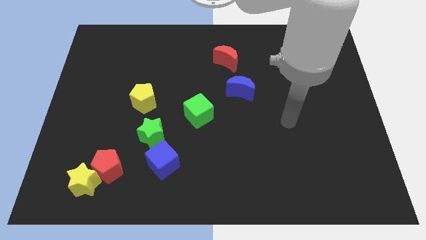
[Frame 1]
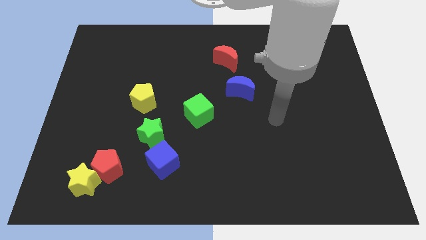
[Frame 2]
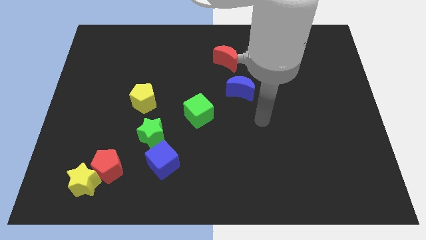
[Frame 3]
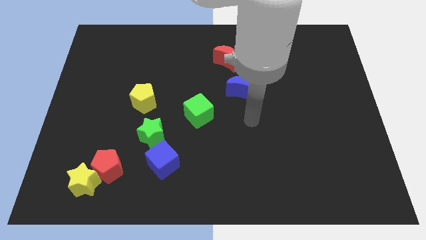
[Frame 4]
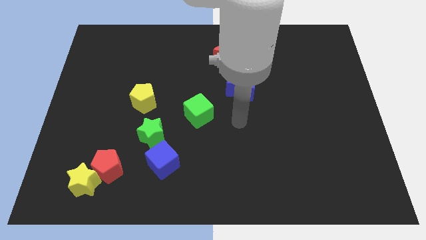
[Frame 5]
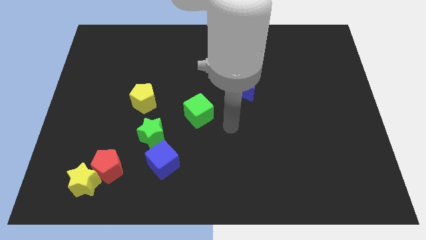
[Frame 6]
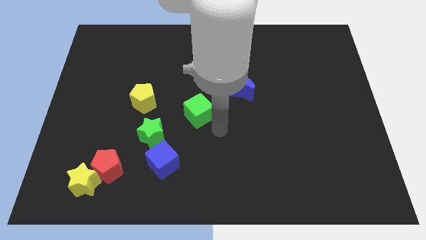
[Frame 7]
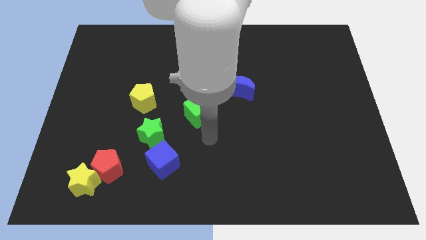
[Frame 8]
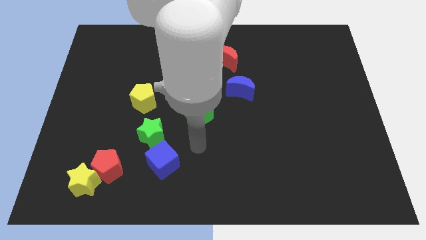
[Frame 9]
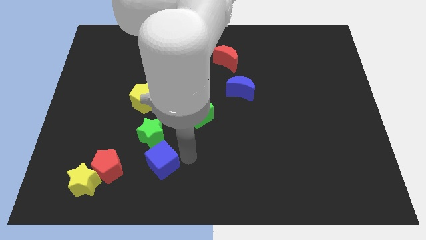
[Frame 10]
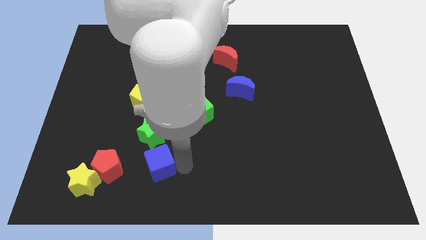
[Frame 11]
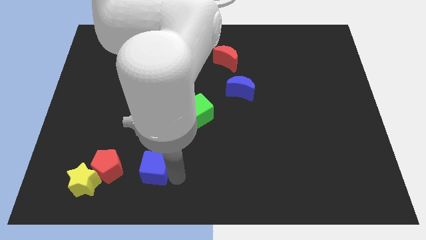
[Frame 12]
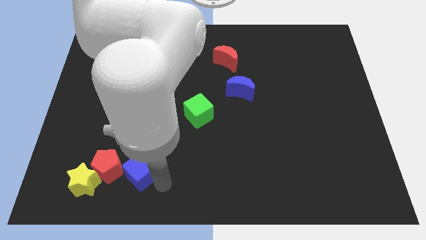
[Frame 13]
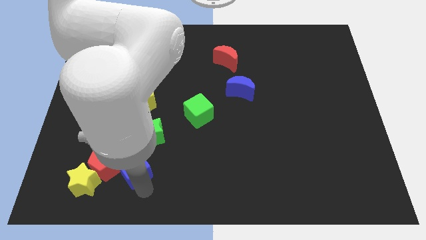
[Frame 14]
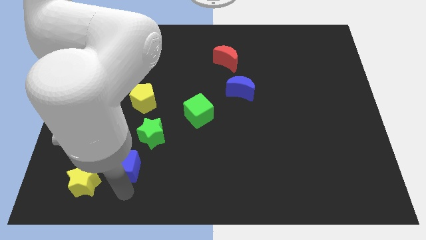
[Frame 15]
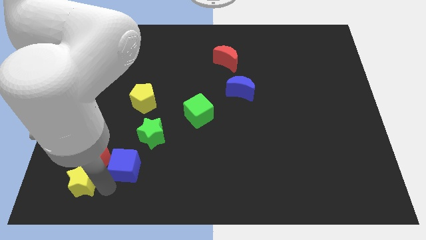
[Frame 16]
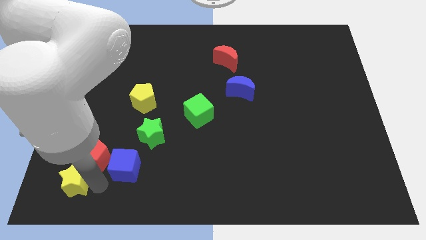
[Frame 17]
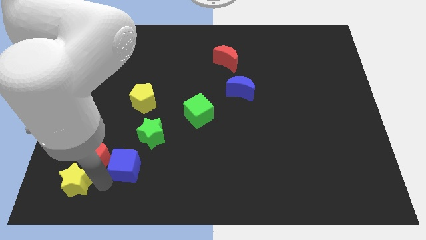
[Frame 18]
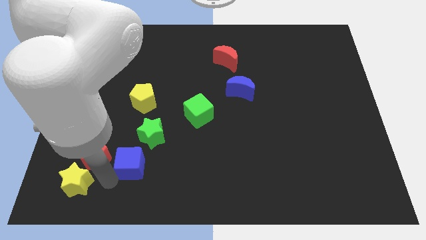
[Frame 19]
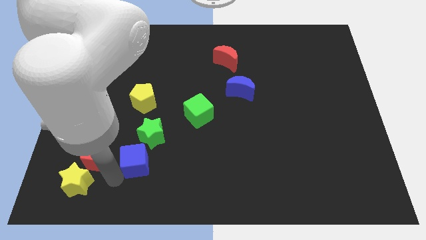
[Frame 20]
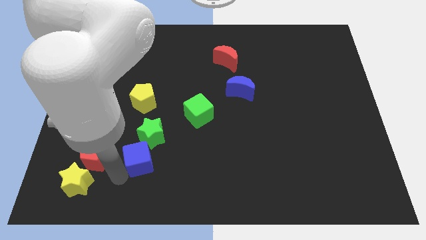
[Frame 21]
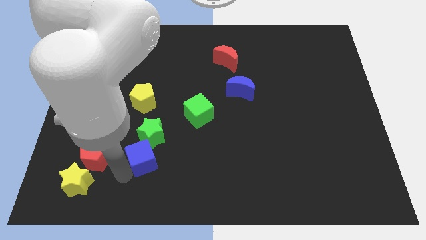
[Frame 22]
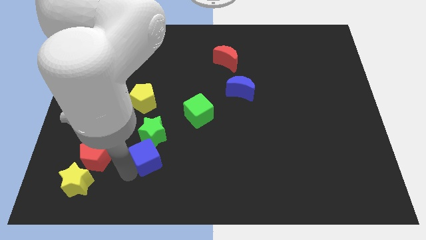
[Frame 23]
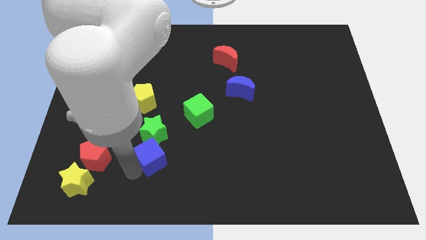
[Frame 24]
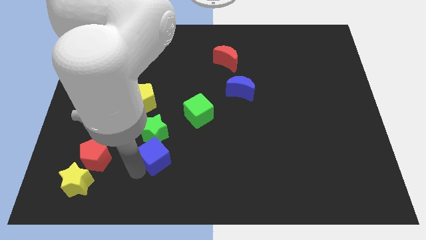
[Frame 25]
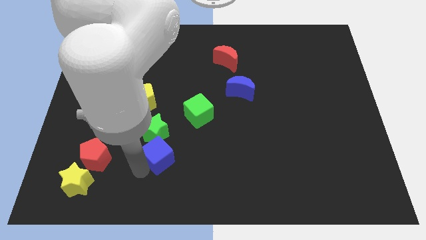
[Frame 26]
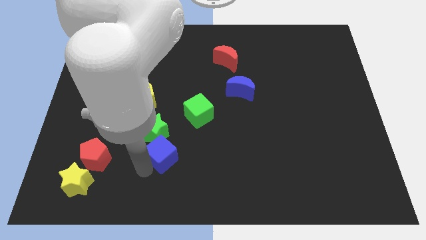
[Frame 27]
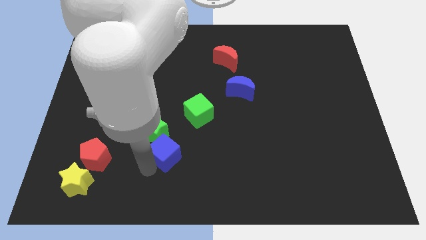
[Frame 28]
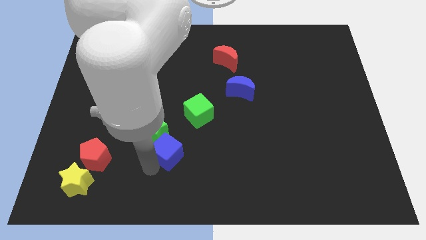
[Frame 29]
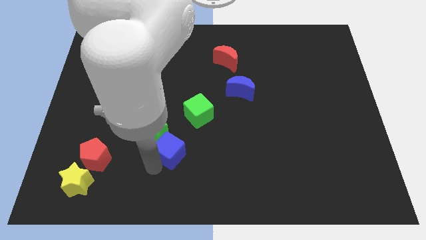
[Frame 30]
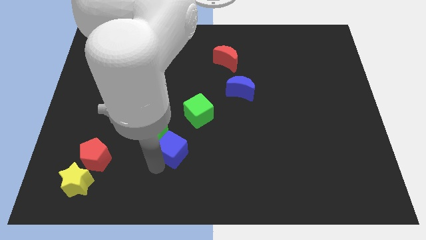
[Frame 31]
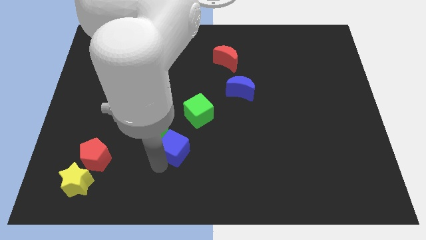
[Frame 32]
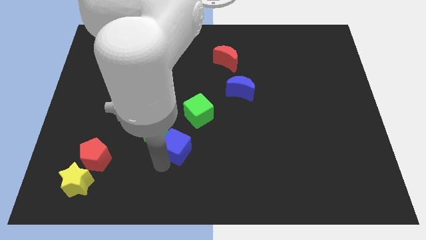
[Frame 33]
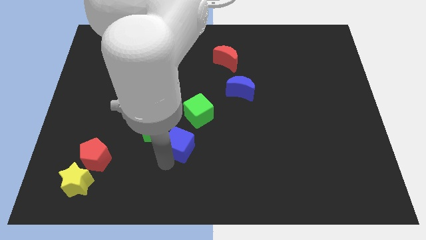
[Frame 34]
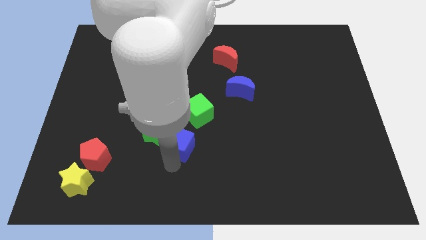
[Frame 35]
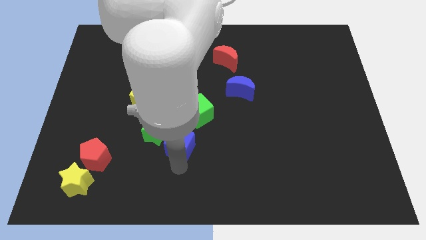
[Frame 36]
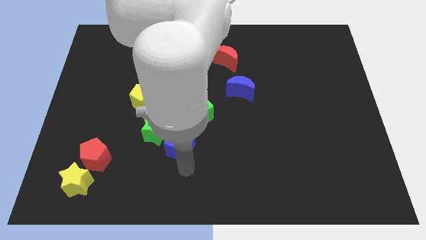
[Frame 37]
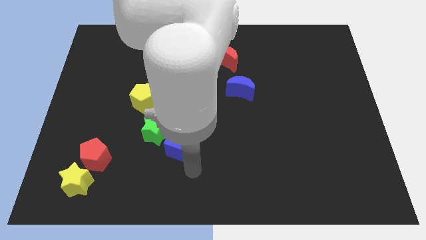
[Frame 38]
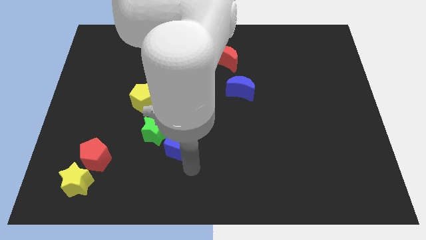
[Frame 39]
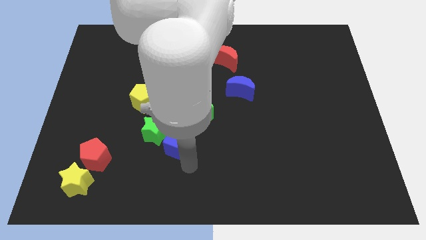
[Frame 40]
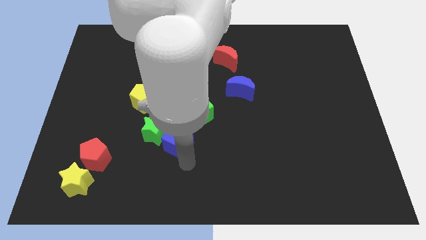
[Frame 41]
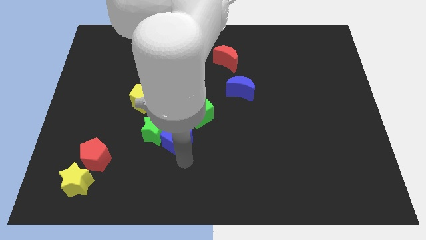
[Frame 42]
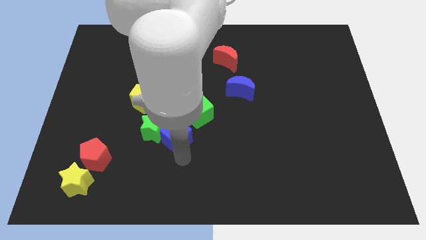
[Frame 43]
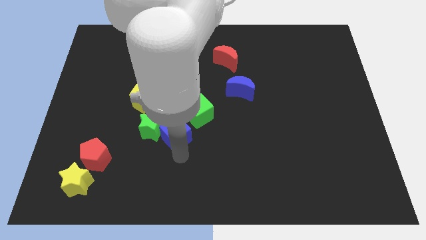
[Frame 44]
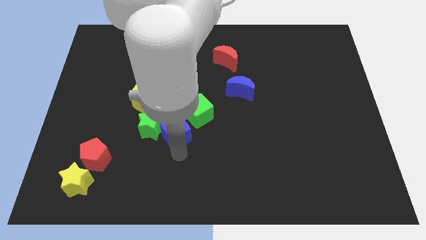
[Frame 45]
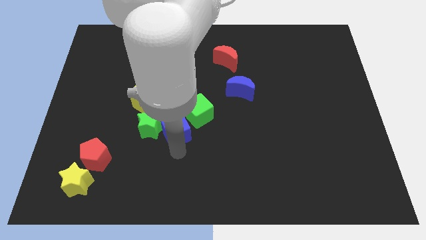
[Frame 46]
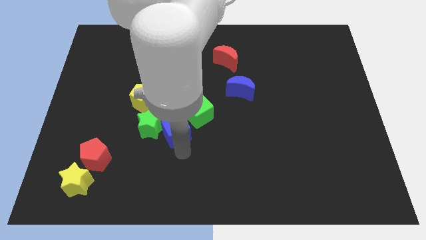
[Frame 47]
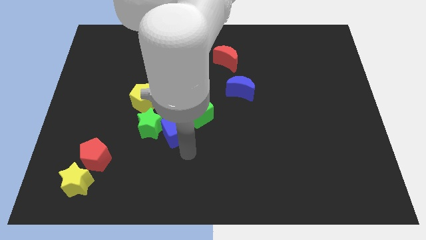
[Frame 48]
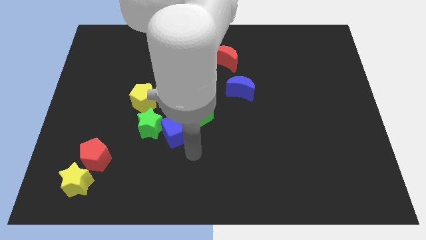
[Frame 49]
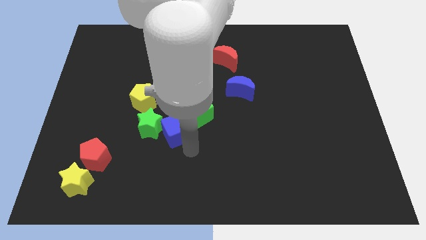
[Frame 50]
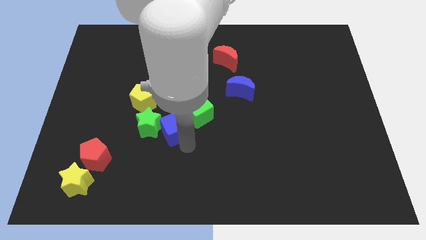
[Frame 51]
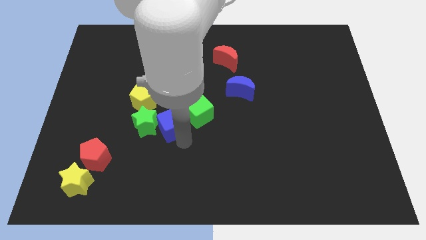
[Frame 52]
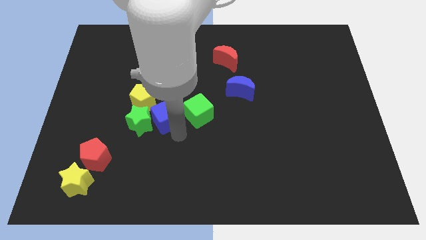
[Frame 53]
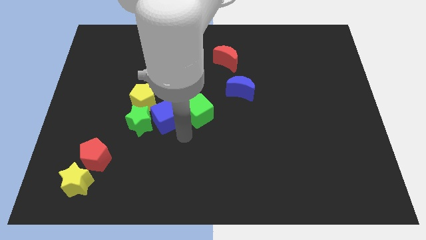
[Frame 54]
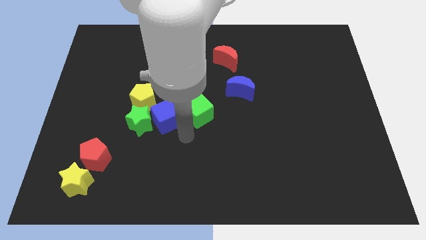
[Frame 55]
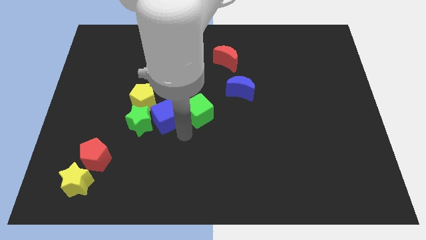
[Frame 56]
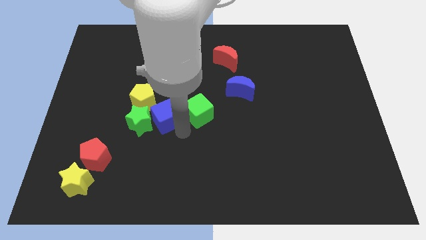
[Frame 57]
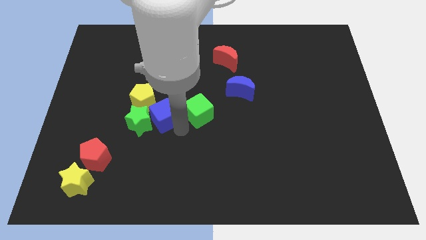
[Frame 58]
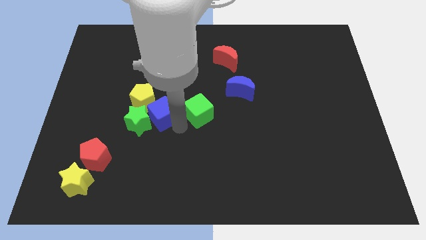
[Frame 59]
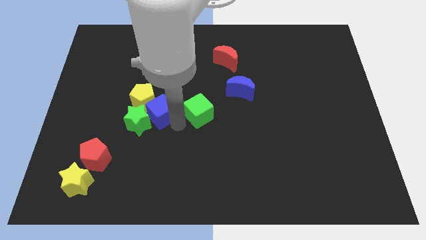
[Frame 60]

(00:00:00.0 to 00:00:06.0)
slide the blue cube next to the yellow pentagon

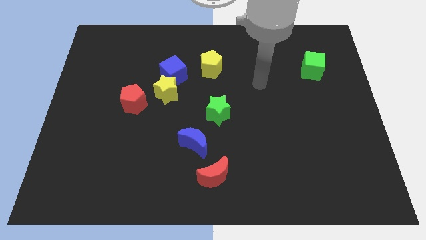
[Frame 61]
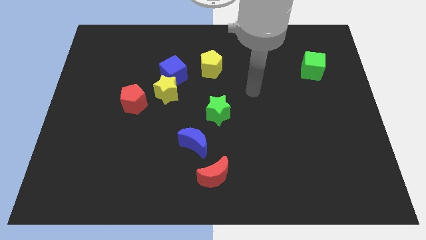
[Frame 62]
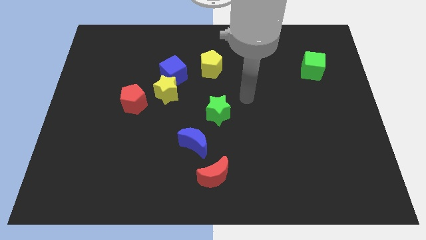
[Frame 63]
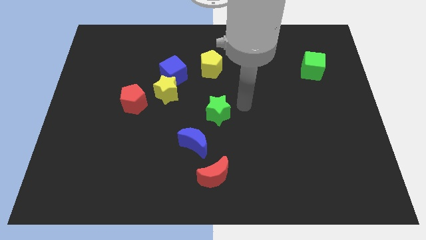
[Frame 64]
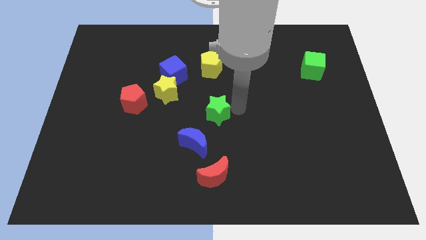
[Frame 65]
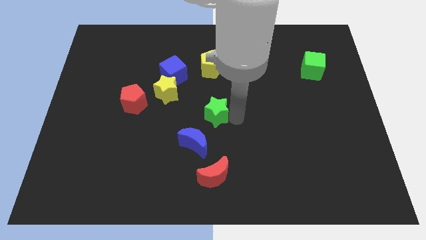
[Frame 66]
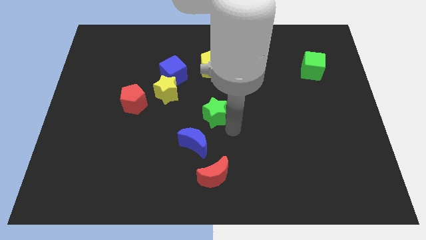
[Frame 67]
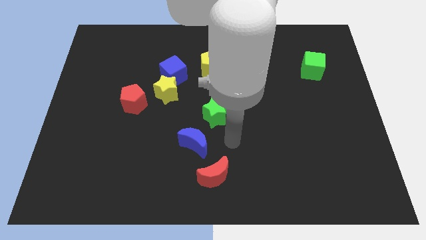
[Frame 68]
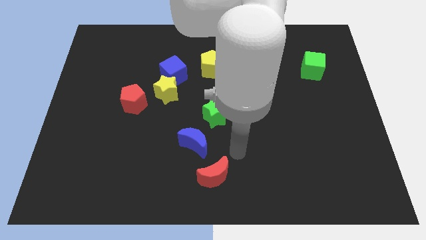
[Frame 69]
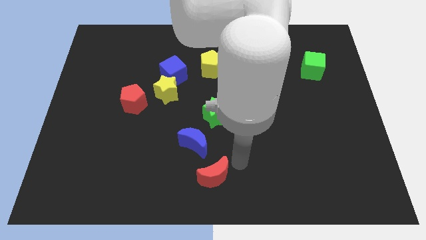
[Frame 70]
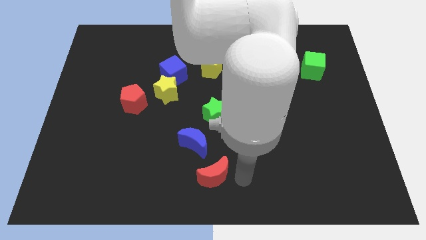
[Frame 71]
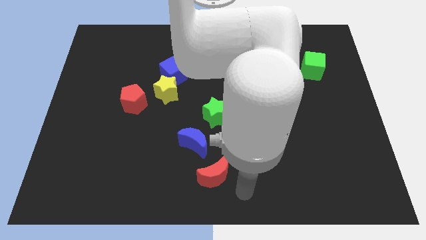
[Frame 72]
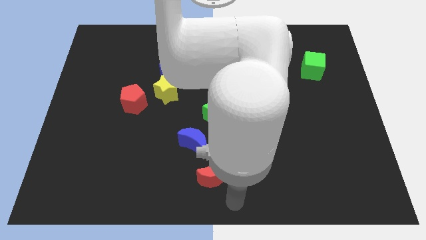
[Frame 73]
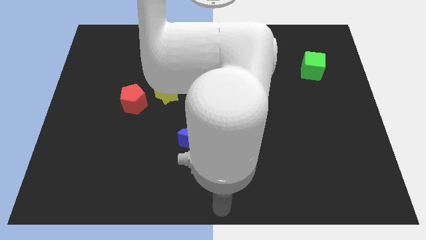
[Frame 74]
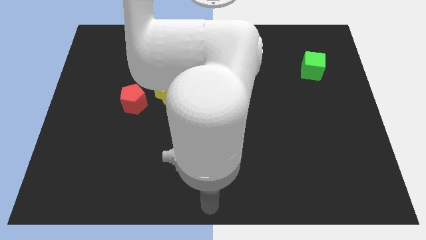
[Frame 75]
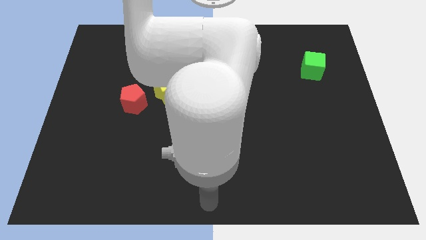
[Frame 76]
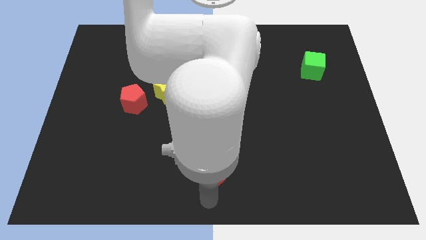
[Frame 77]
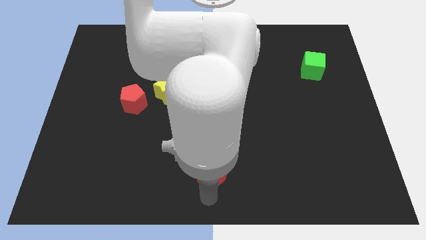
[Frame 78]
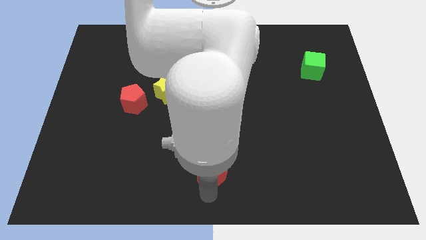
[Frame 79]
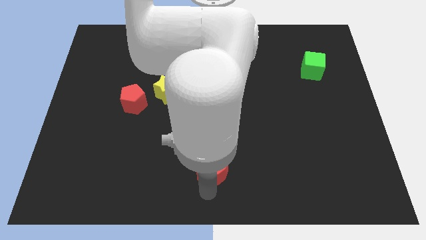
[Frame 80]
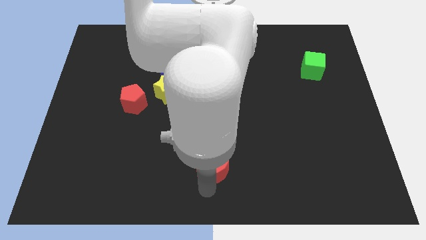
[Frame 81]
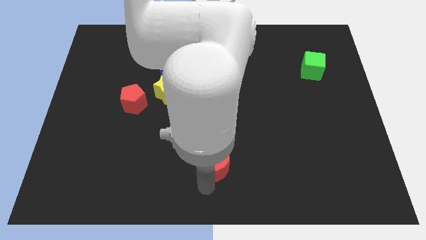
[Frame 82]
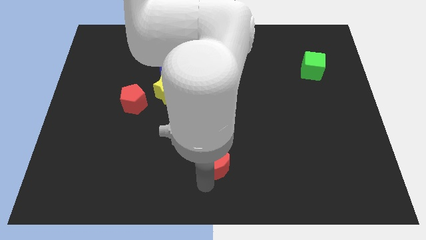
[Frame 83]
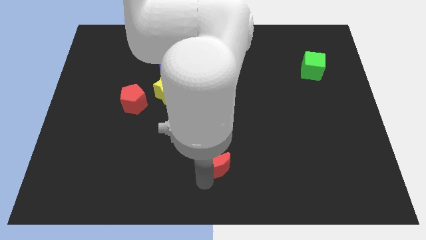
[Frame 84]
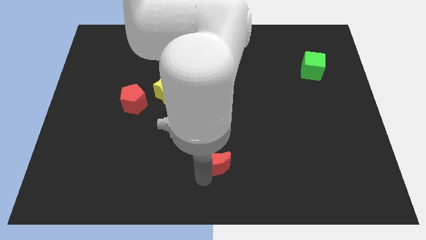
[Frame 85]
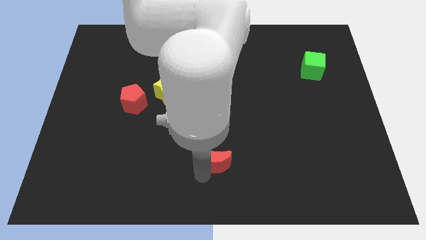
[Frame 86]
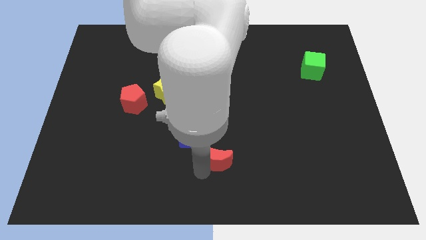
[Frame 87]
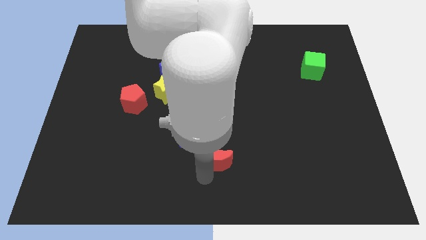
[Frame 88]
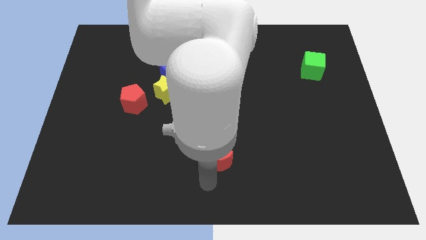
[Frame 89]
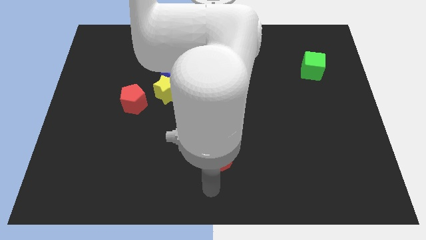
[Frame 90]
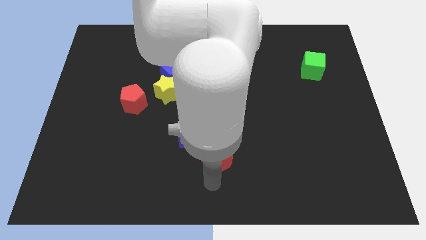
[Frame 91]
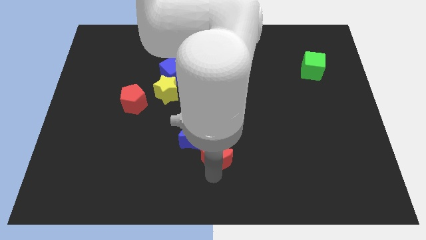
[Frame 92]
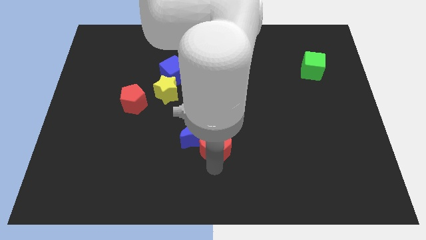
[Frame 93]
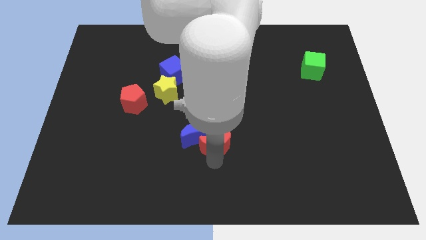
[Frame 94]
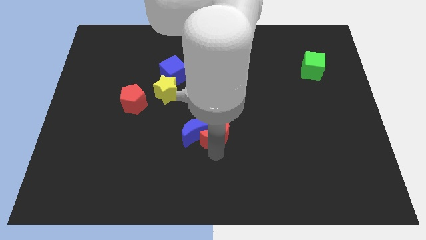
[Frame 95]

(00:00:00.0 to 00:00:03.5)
put the red moon towards the green star
